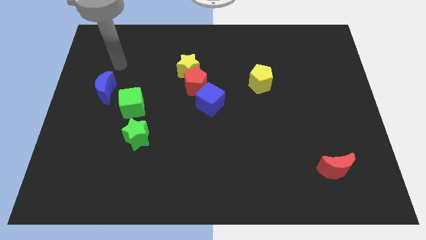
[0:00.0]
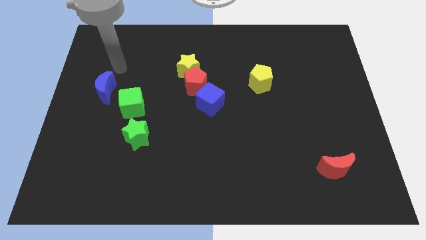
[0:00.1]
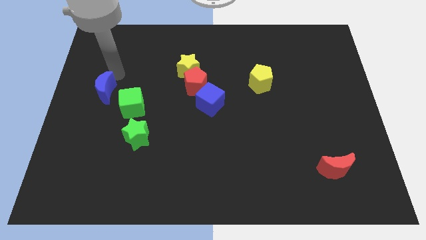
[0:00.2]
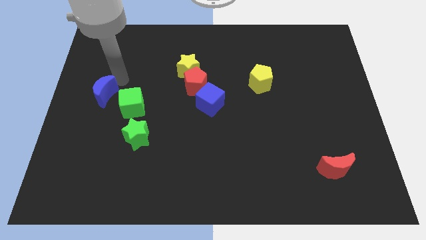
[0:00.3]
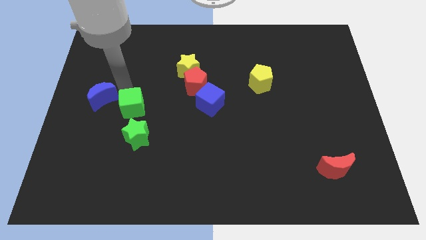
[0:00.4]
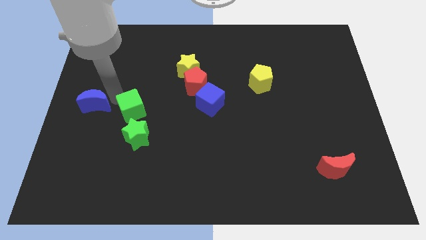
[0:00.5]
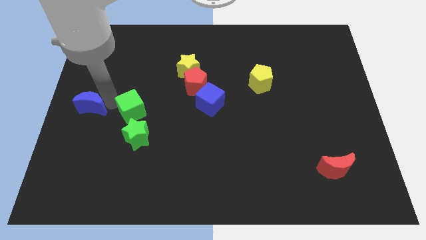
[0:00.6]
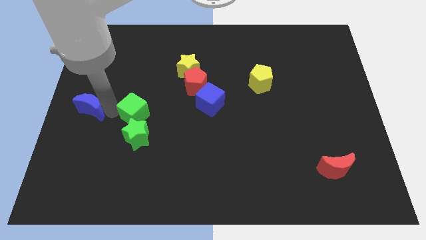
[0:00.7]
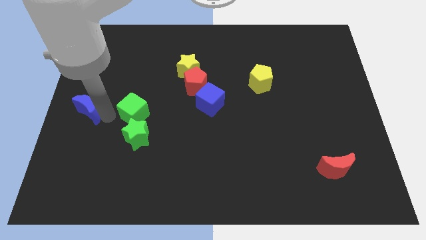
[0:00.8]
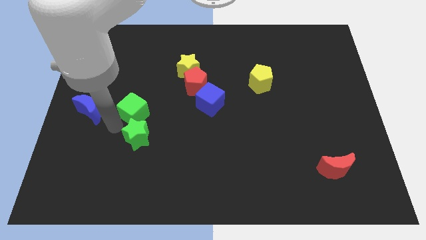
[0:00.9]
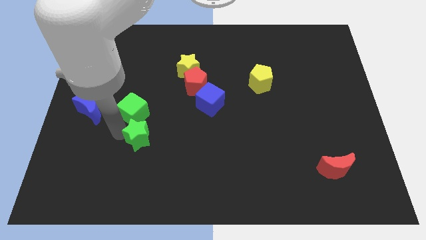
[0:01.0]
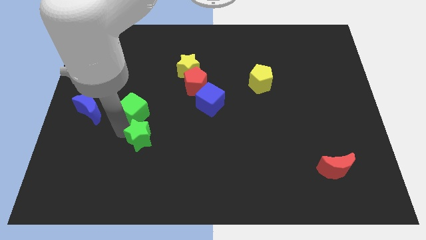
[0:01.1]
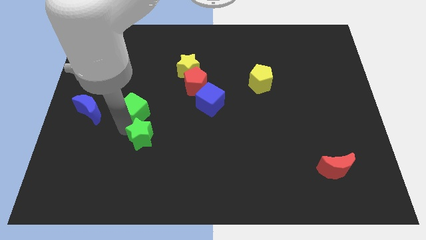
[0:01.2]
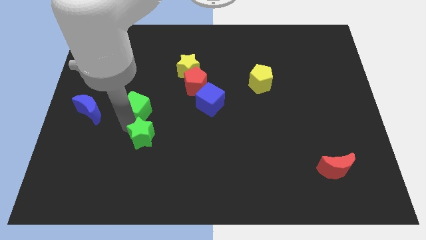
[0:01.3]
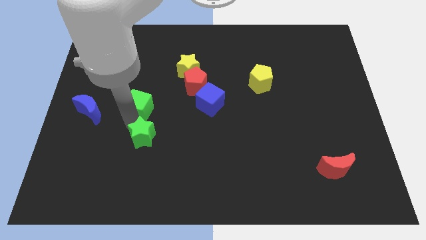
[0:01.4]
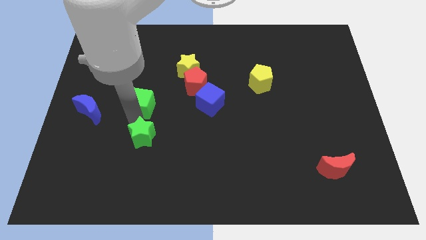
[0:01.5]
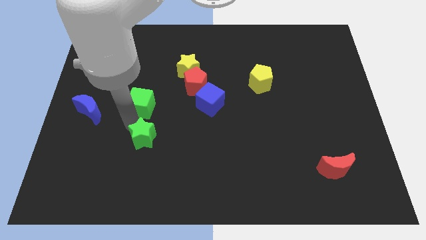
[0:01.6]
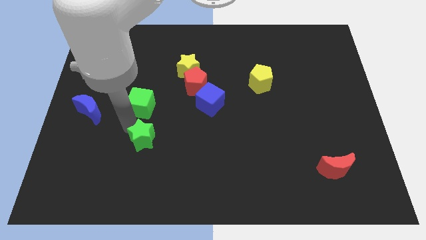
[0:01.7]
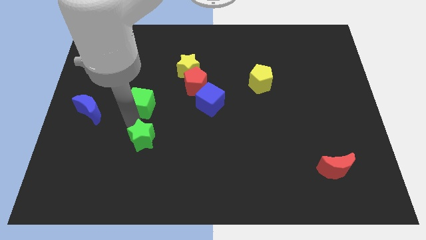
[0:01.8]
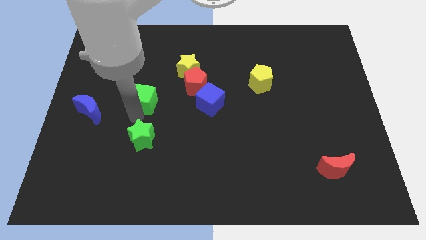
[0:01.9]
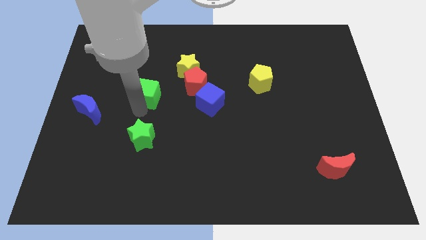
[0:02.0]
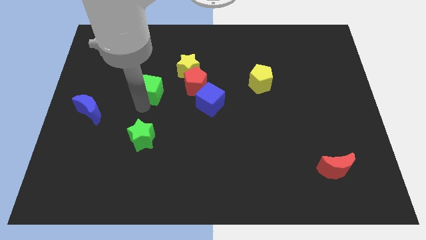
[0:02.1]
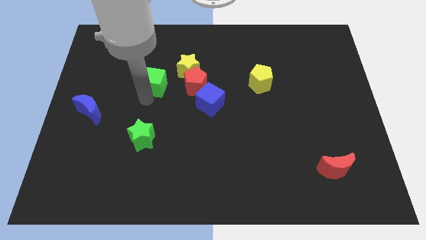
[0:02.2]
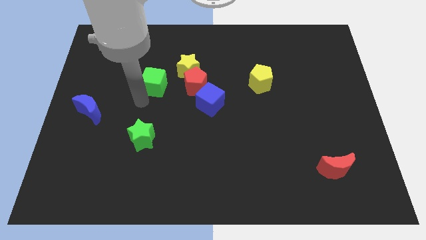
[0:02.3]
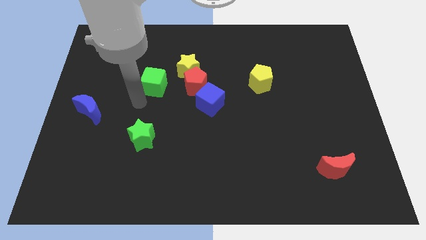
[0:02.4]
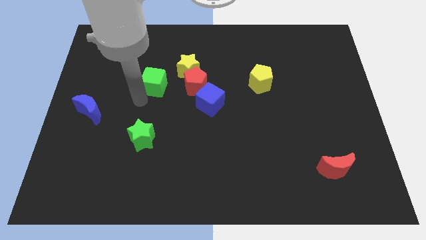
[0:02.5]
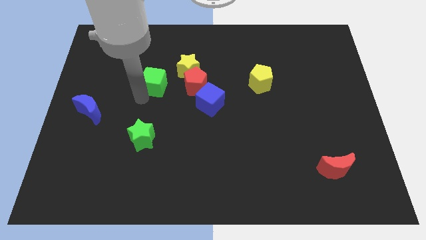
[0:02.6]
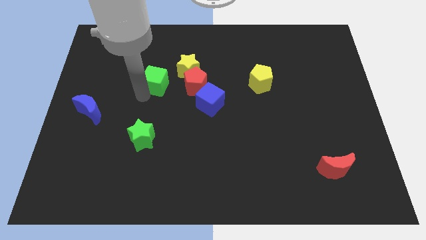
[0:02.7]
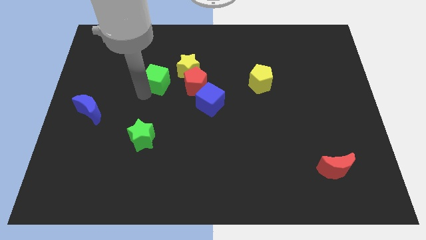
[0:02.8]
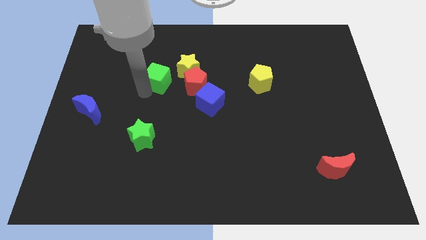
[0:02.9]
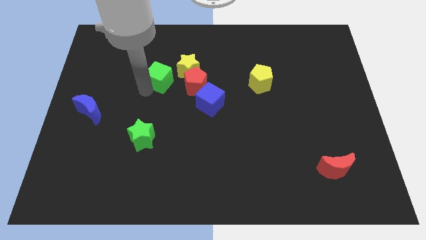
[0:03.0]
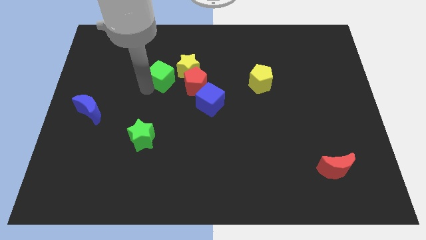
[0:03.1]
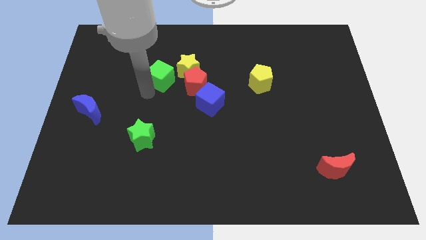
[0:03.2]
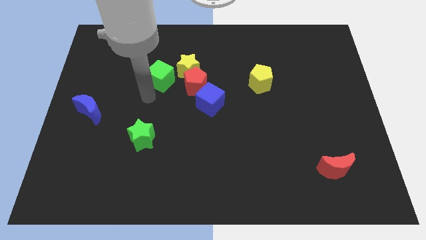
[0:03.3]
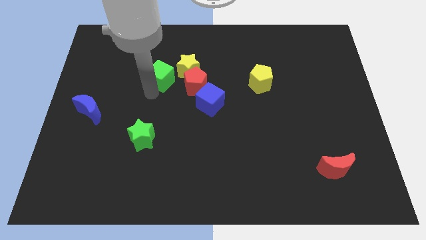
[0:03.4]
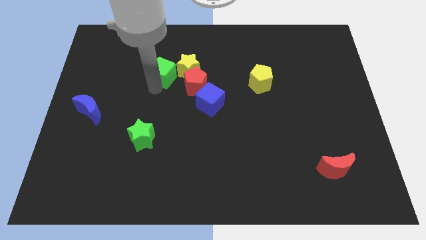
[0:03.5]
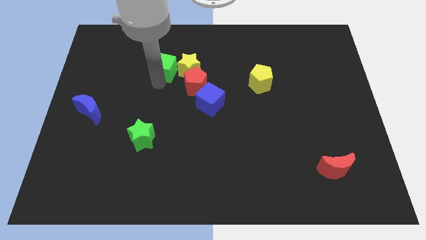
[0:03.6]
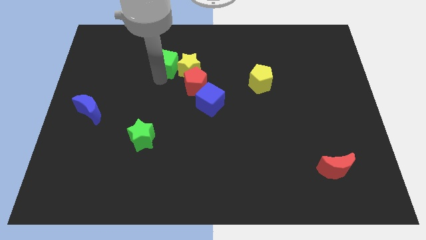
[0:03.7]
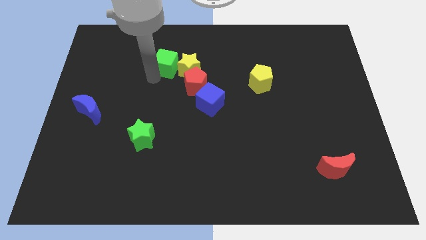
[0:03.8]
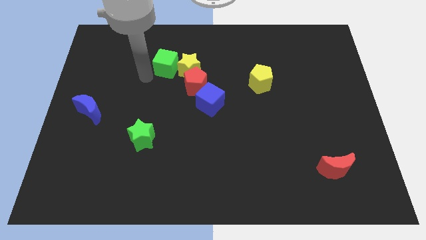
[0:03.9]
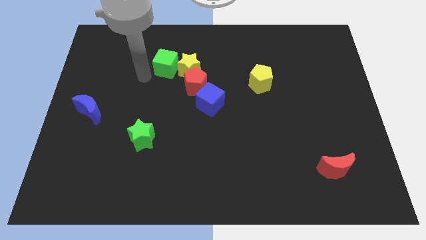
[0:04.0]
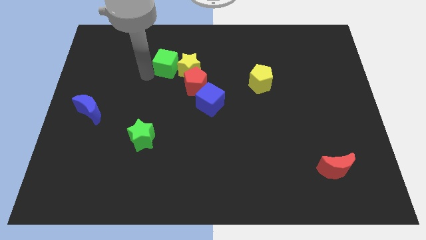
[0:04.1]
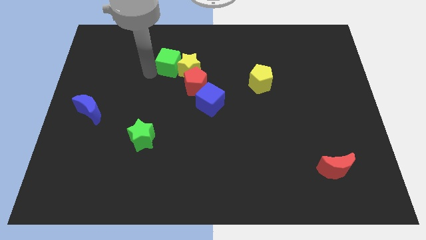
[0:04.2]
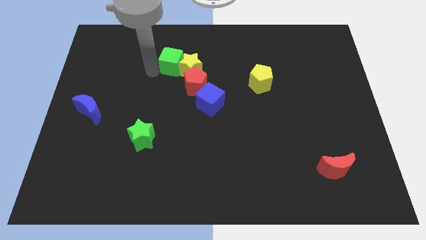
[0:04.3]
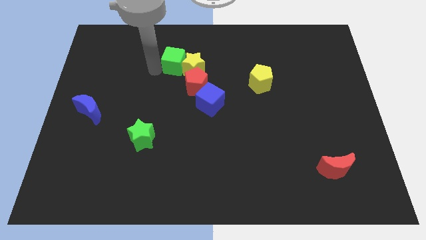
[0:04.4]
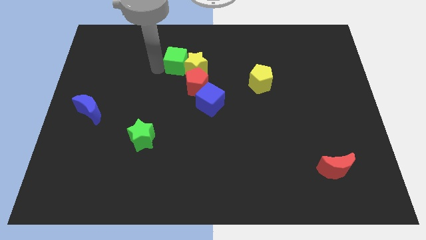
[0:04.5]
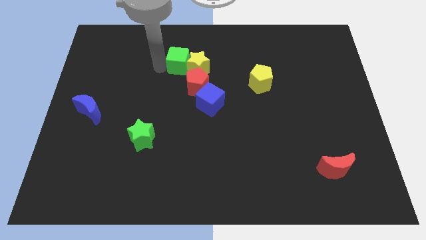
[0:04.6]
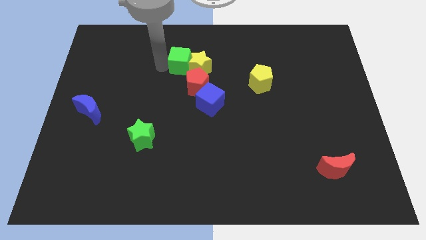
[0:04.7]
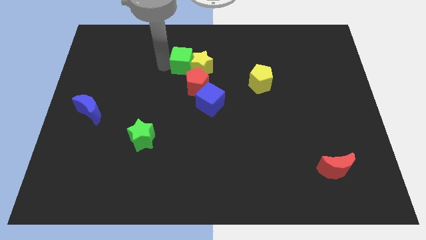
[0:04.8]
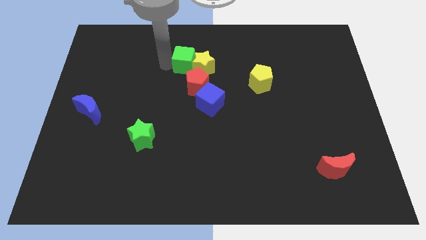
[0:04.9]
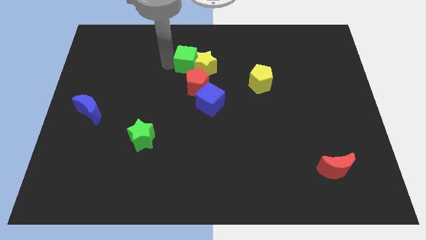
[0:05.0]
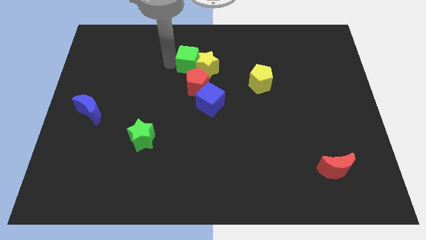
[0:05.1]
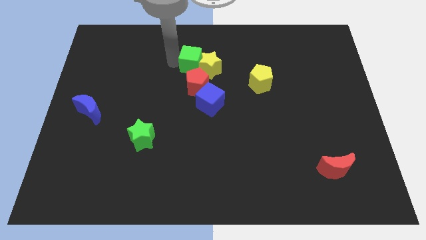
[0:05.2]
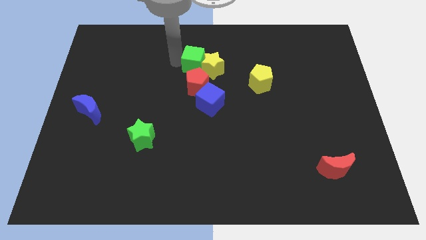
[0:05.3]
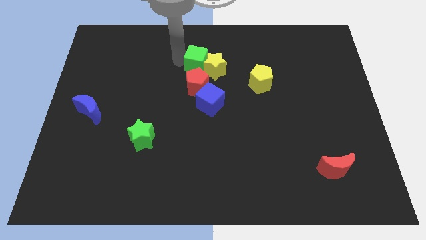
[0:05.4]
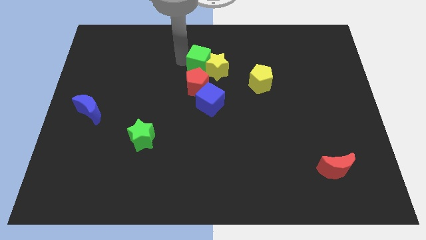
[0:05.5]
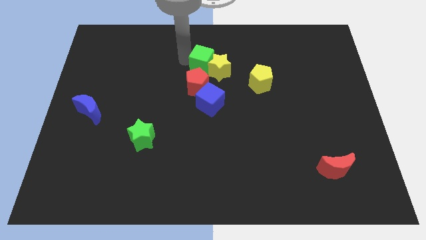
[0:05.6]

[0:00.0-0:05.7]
put the green cube to the top right side of the red pentagon
